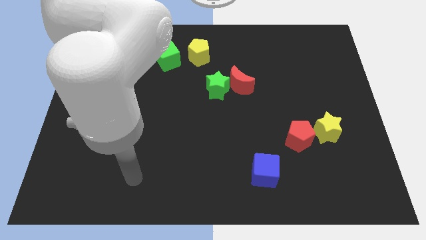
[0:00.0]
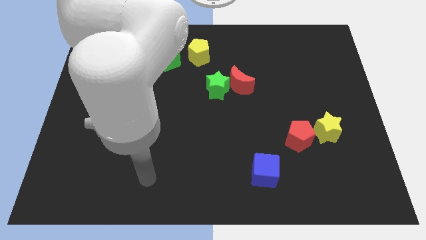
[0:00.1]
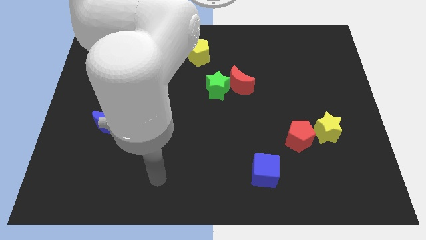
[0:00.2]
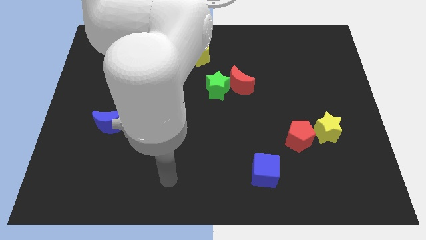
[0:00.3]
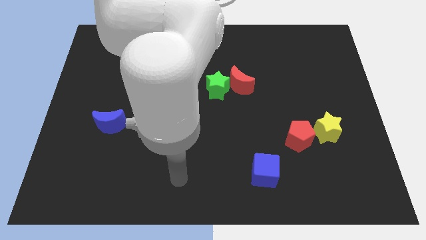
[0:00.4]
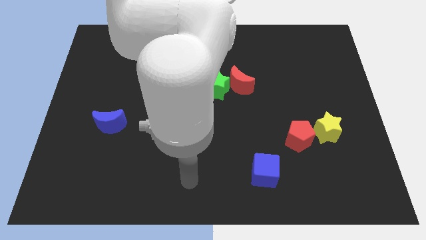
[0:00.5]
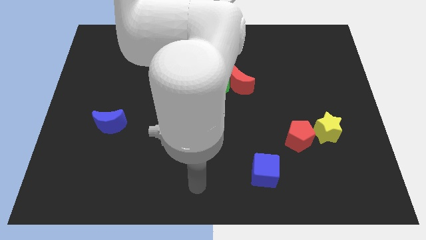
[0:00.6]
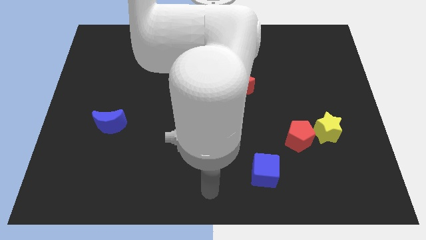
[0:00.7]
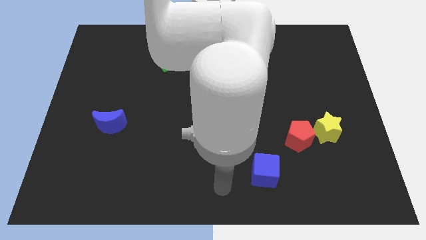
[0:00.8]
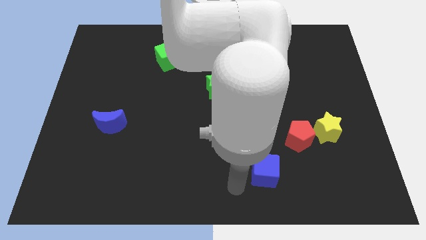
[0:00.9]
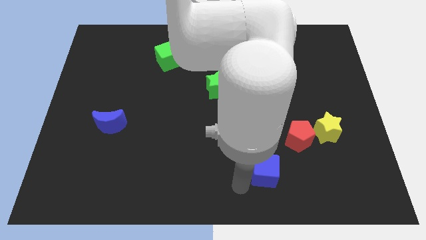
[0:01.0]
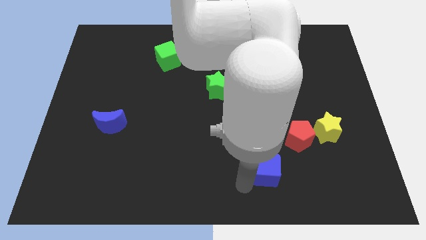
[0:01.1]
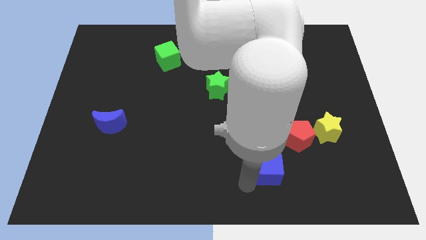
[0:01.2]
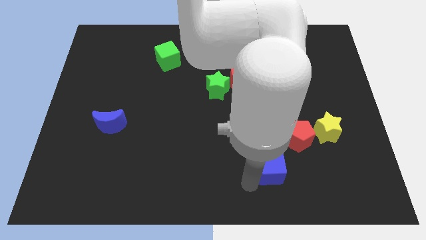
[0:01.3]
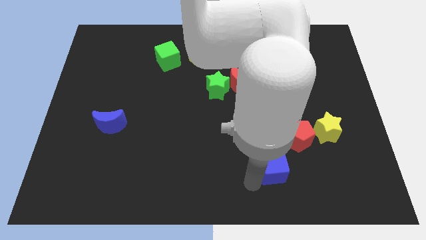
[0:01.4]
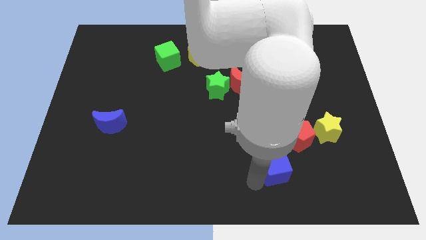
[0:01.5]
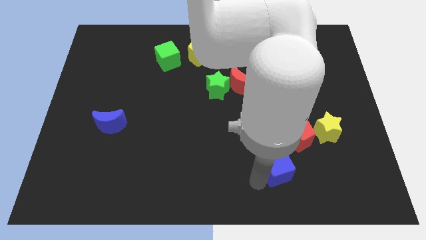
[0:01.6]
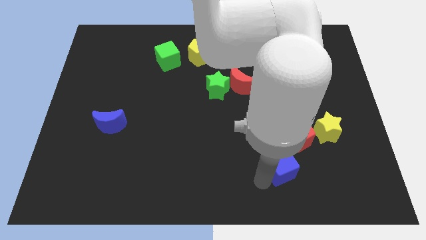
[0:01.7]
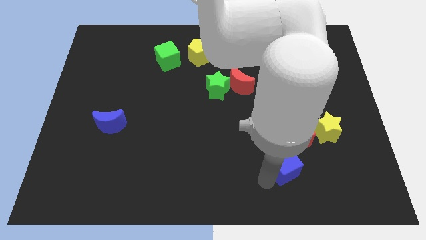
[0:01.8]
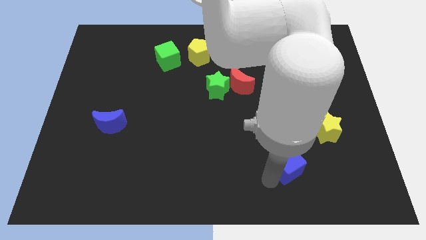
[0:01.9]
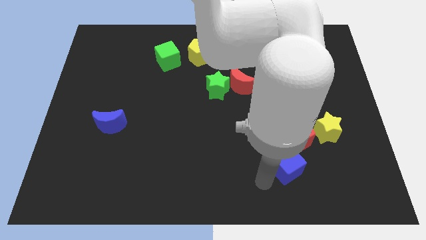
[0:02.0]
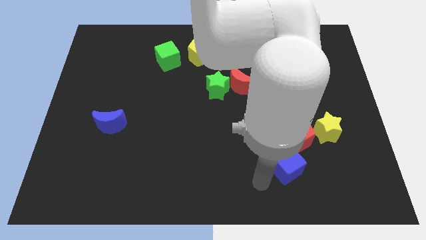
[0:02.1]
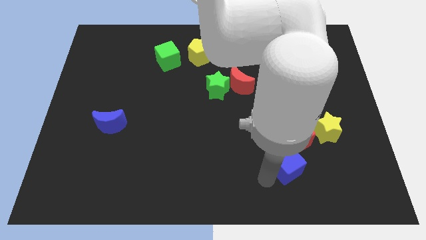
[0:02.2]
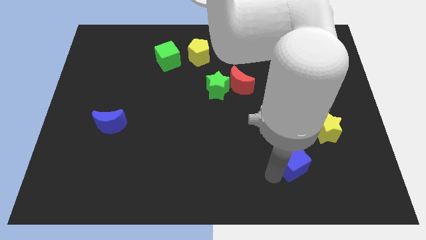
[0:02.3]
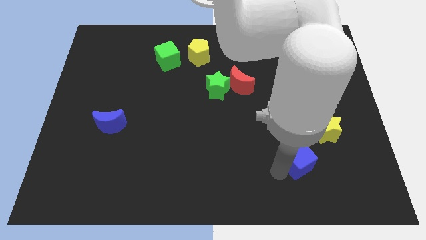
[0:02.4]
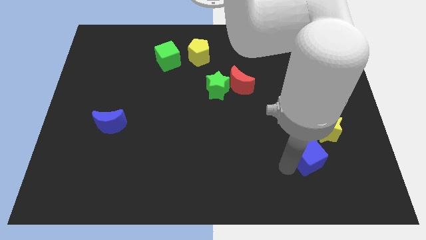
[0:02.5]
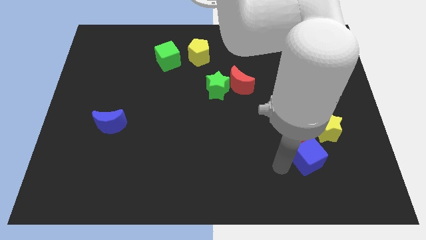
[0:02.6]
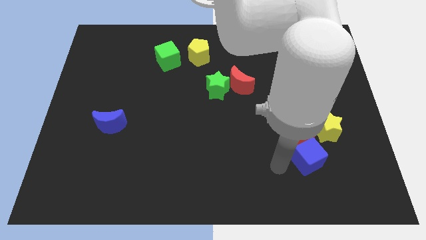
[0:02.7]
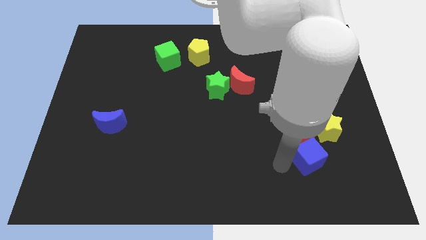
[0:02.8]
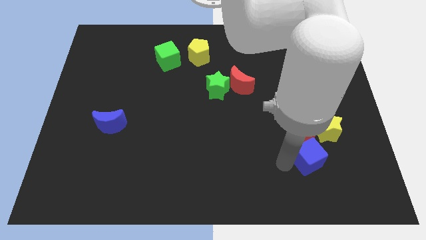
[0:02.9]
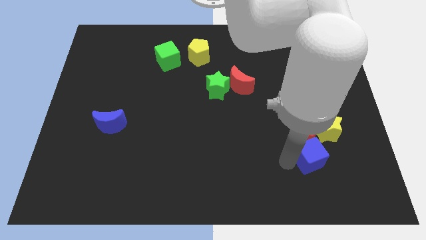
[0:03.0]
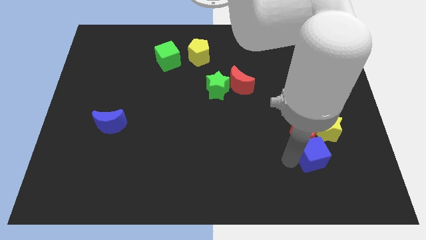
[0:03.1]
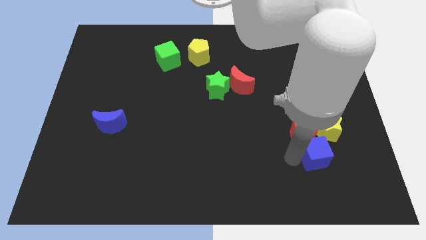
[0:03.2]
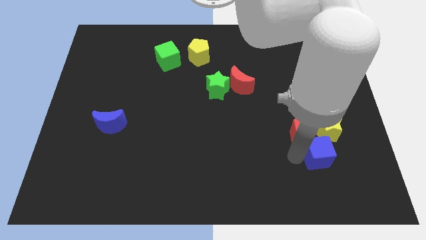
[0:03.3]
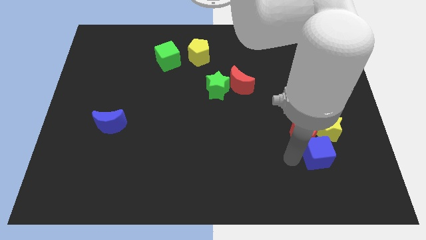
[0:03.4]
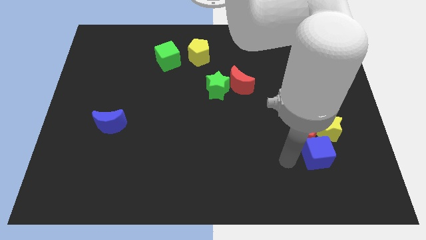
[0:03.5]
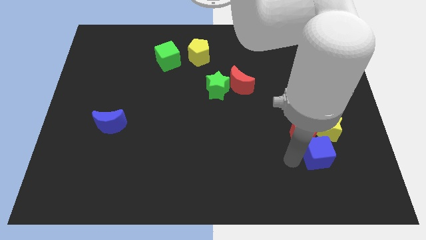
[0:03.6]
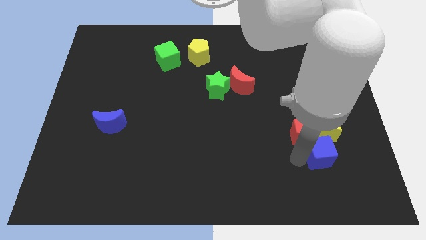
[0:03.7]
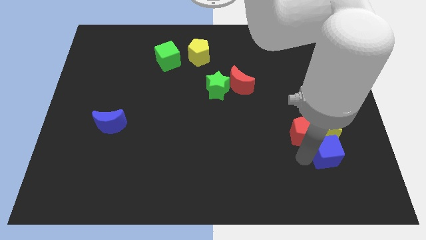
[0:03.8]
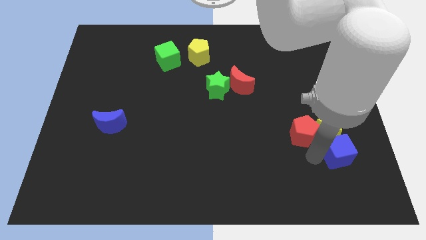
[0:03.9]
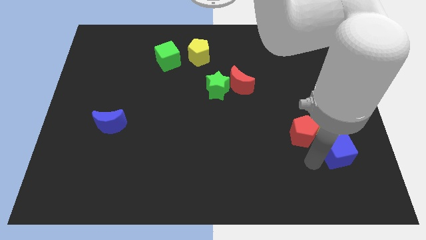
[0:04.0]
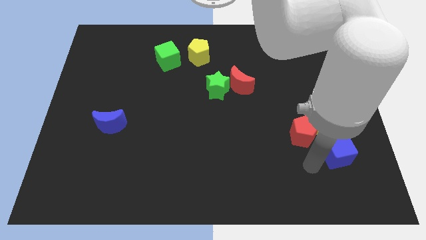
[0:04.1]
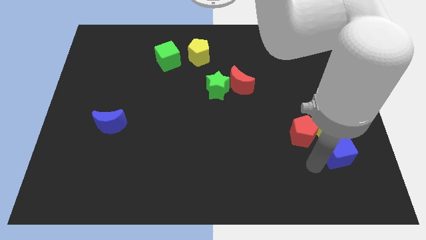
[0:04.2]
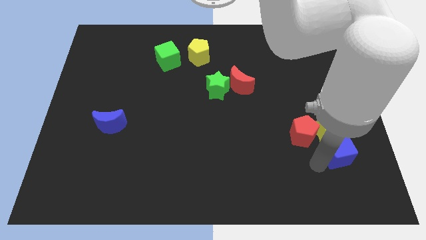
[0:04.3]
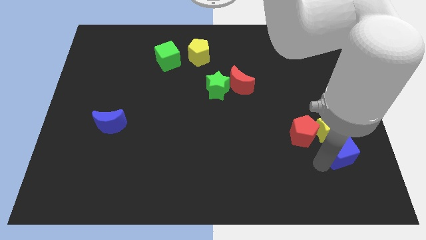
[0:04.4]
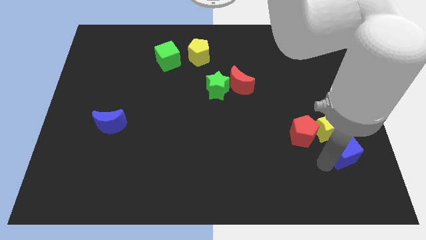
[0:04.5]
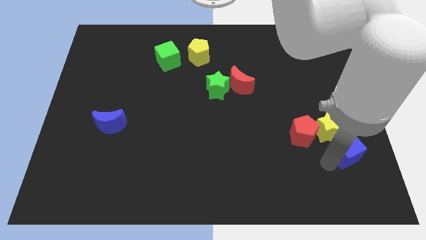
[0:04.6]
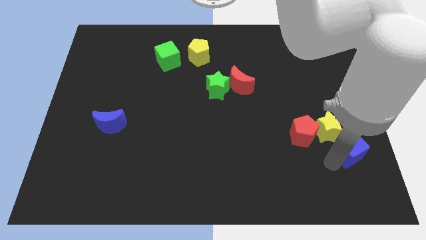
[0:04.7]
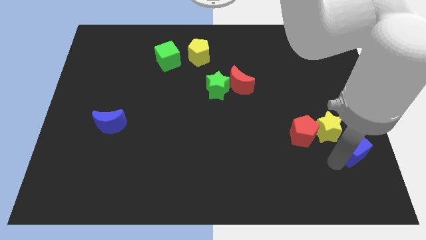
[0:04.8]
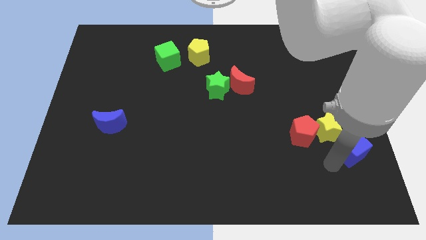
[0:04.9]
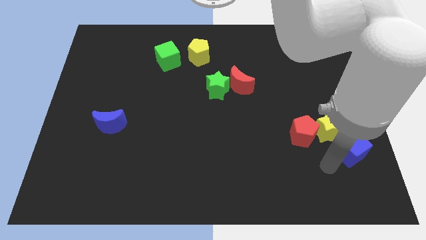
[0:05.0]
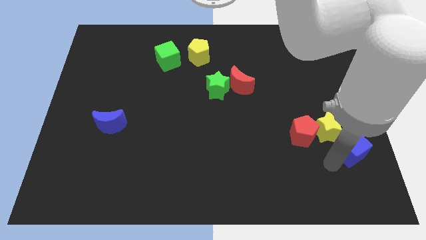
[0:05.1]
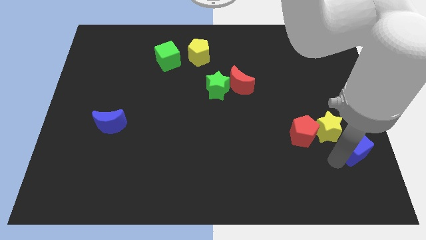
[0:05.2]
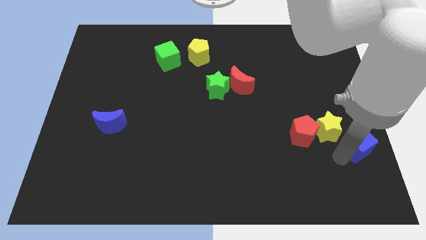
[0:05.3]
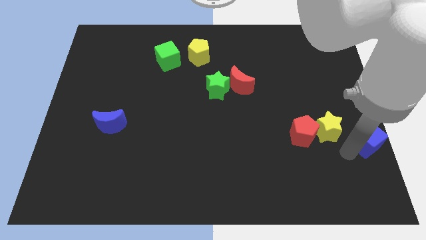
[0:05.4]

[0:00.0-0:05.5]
put the blue cube to the right side

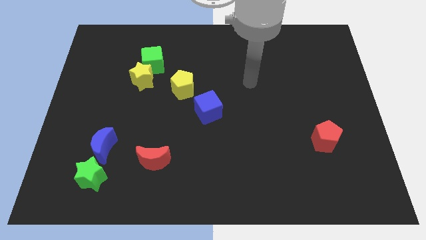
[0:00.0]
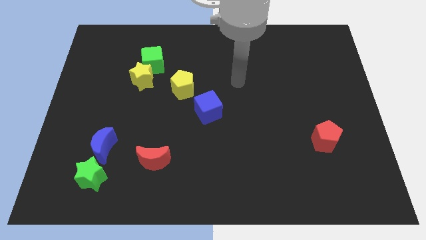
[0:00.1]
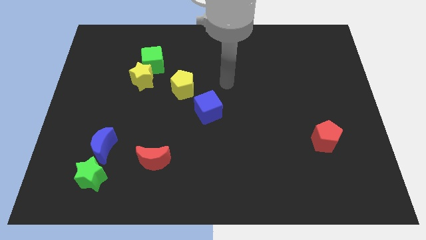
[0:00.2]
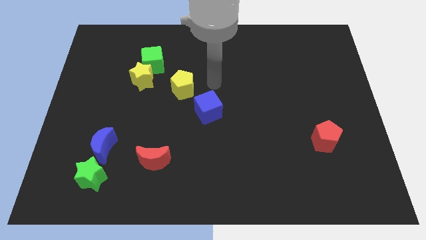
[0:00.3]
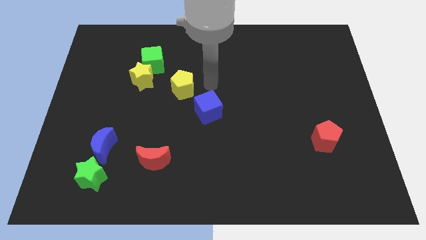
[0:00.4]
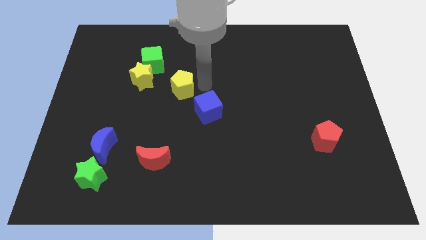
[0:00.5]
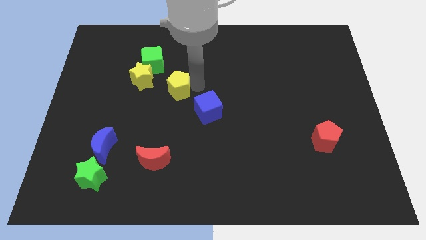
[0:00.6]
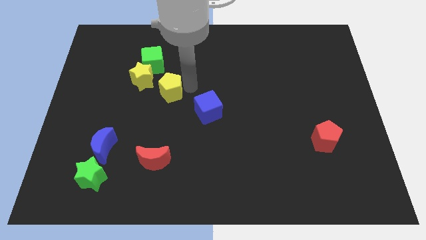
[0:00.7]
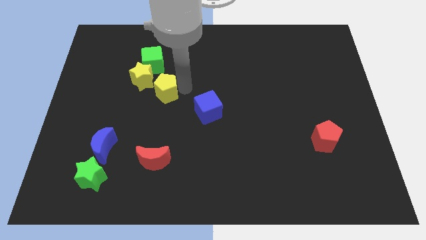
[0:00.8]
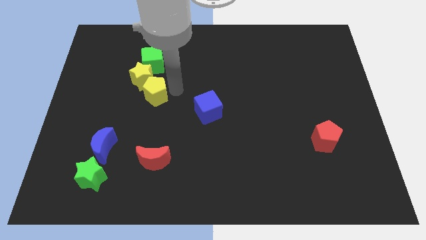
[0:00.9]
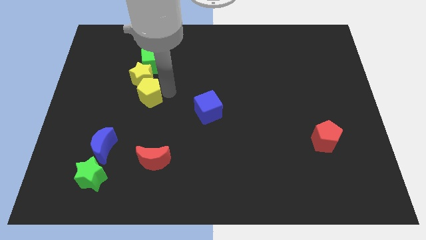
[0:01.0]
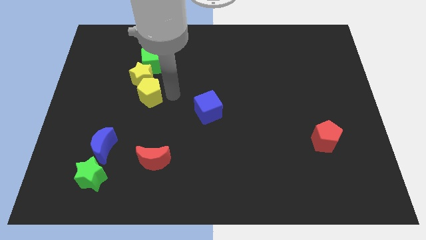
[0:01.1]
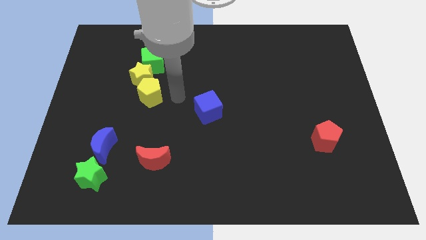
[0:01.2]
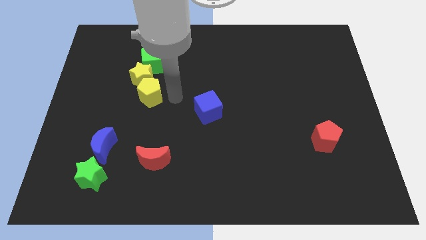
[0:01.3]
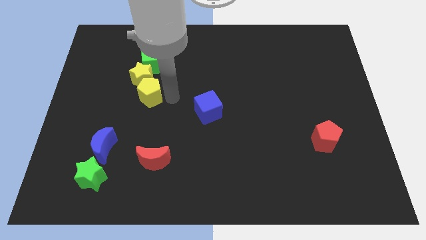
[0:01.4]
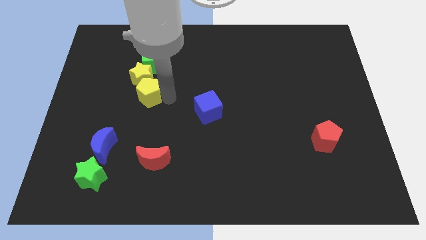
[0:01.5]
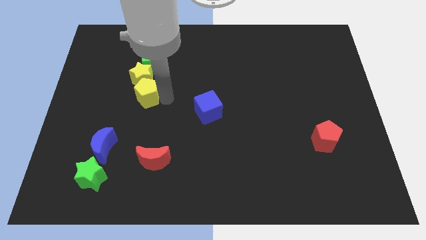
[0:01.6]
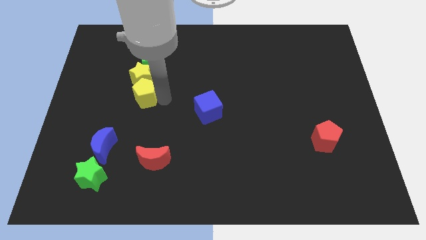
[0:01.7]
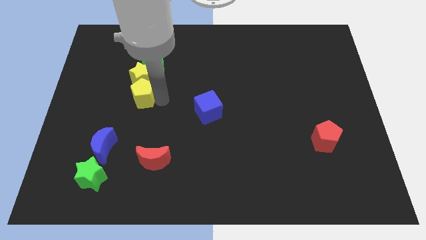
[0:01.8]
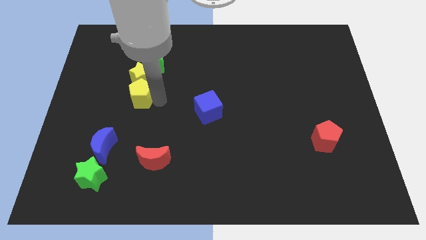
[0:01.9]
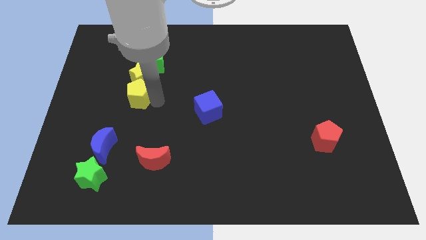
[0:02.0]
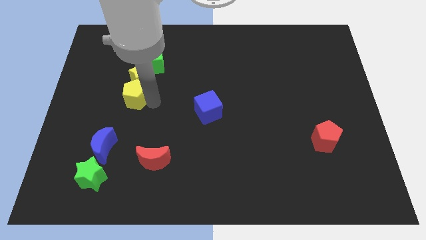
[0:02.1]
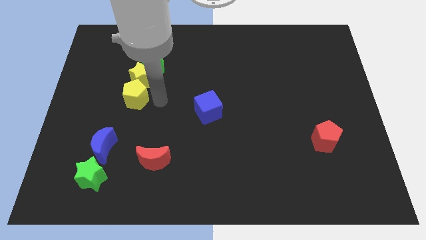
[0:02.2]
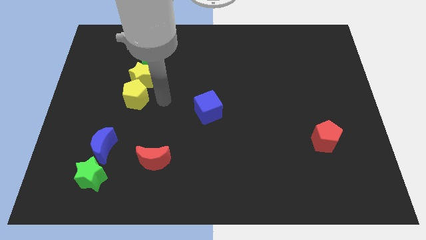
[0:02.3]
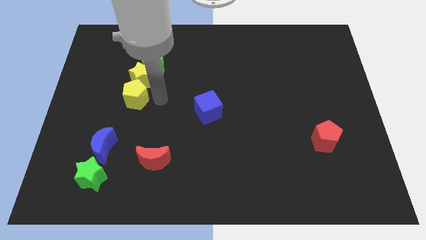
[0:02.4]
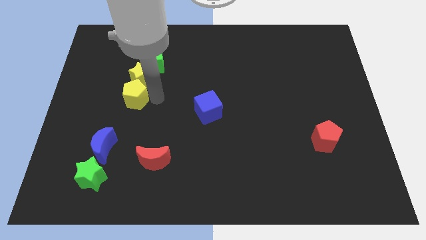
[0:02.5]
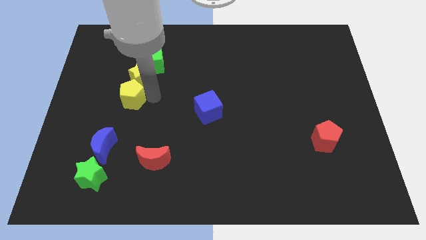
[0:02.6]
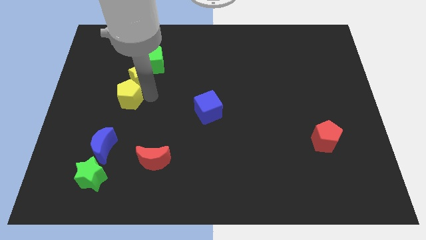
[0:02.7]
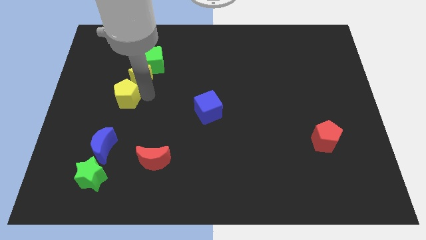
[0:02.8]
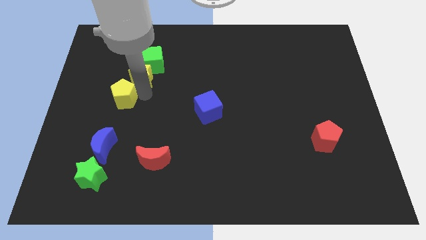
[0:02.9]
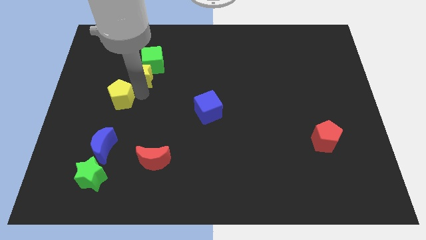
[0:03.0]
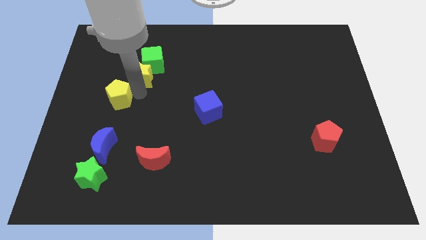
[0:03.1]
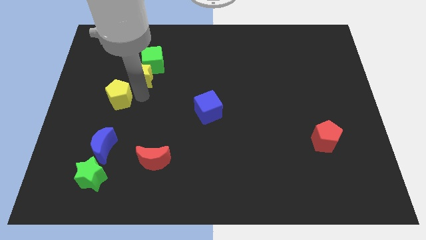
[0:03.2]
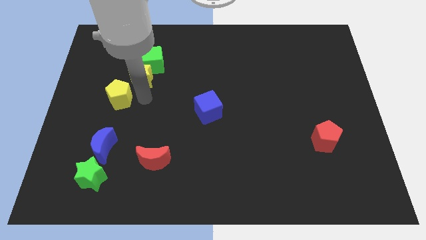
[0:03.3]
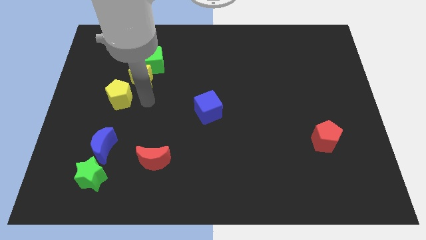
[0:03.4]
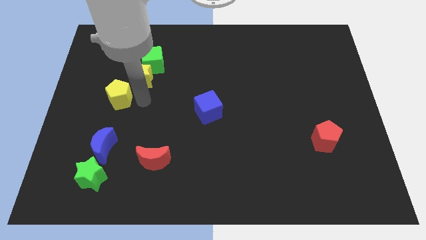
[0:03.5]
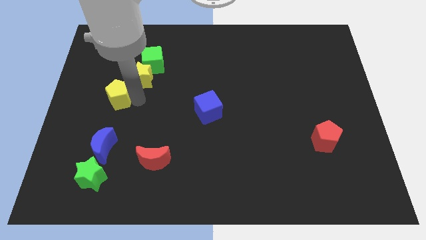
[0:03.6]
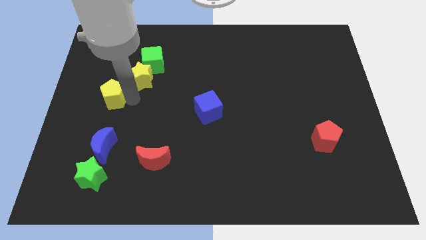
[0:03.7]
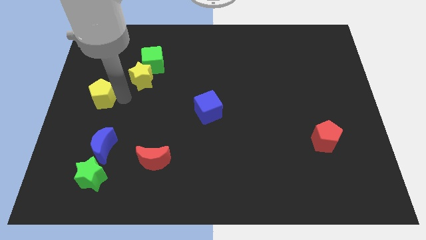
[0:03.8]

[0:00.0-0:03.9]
move the yellow pentagon to the left side
